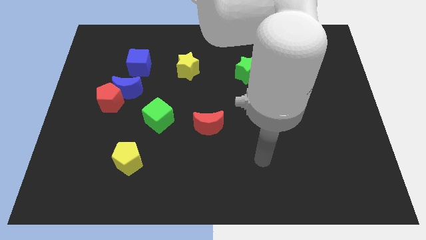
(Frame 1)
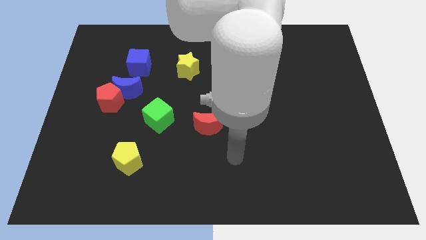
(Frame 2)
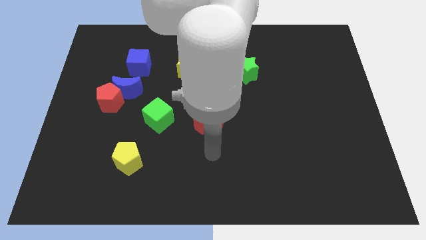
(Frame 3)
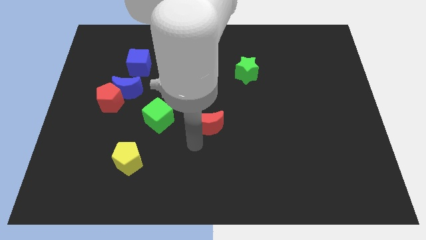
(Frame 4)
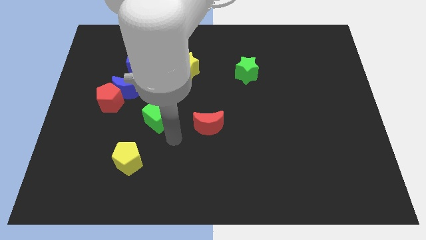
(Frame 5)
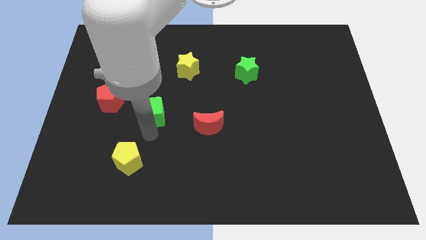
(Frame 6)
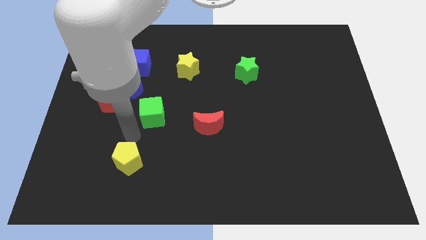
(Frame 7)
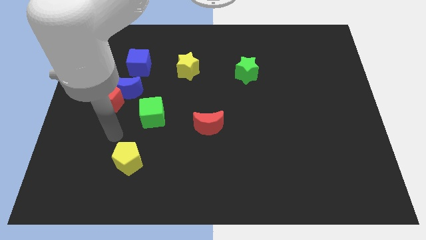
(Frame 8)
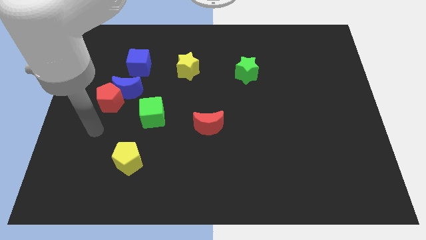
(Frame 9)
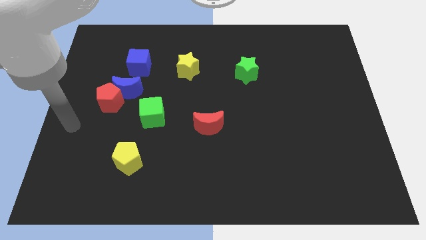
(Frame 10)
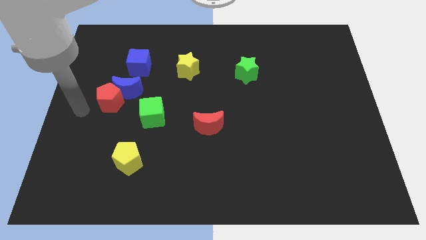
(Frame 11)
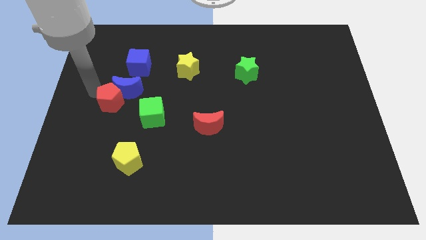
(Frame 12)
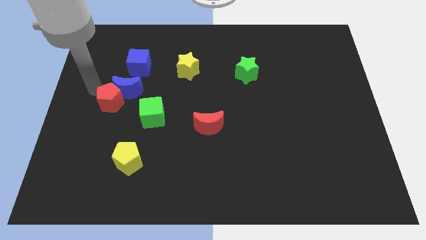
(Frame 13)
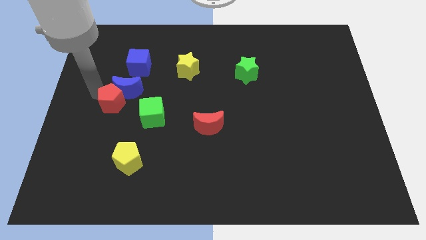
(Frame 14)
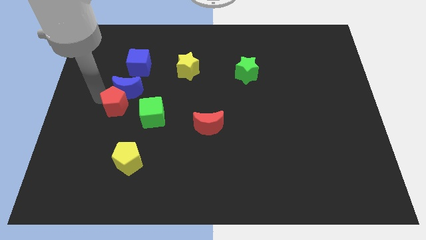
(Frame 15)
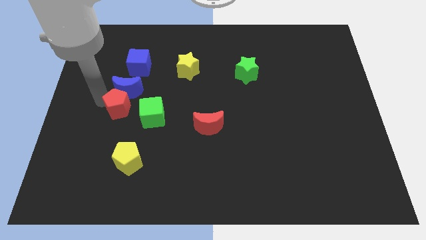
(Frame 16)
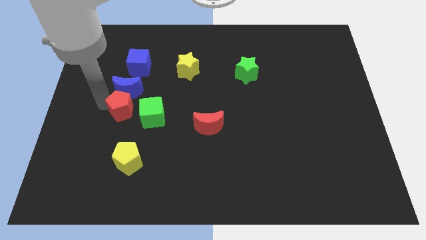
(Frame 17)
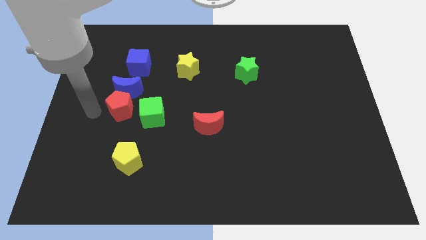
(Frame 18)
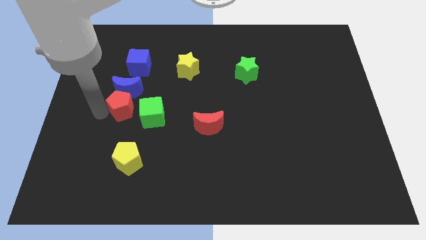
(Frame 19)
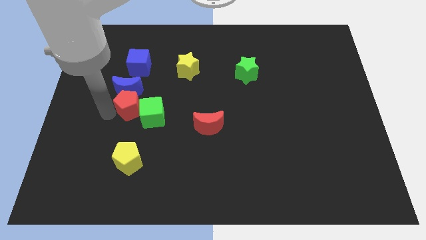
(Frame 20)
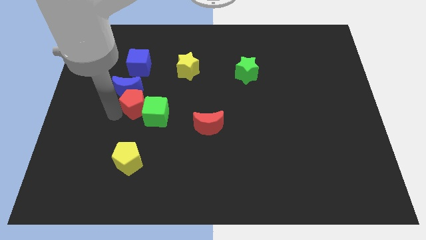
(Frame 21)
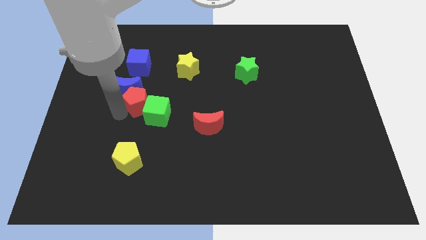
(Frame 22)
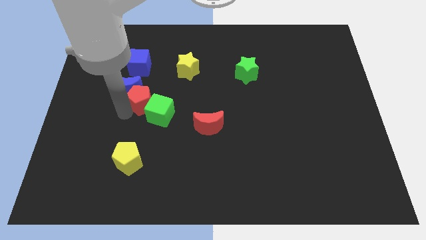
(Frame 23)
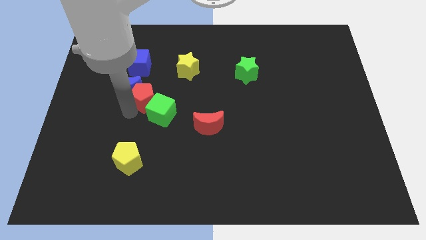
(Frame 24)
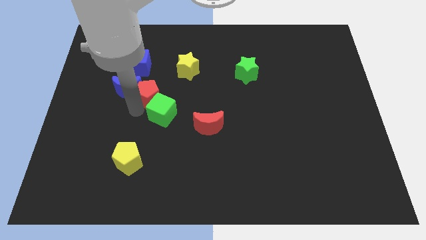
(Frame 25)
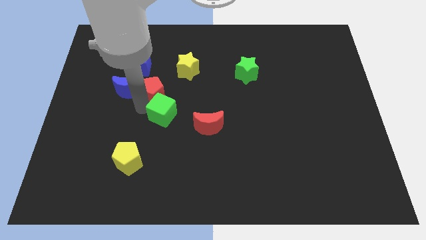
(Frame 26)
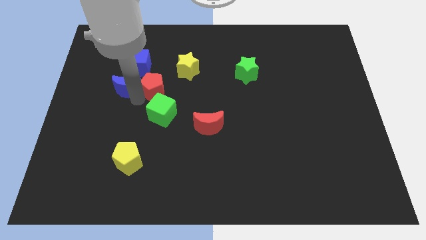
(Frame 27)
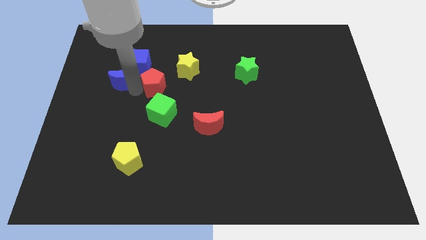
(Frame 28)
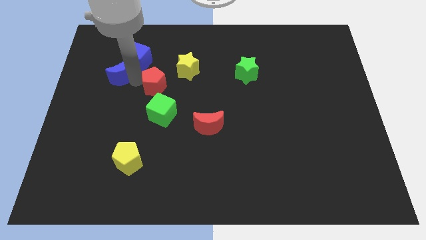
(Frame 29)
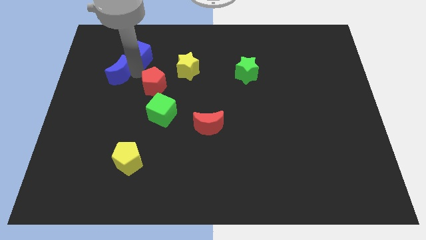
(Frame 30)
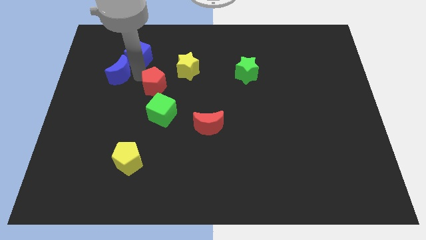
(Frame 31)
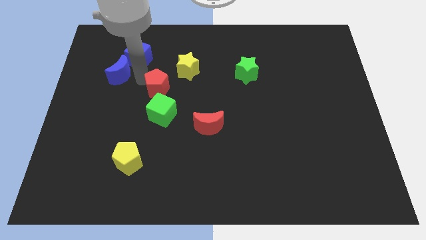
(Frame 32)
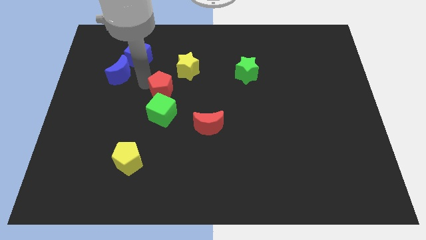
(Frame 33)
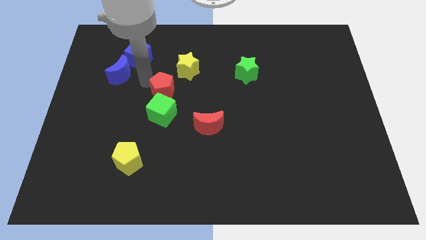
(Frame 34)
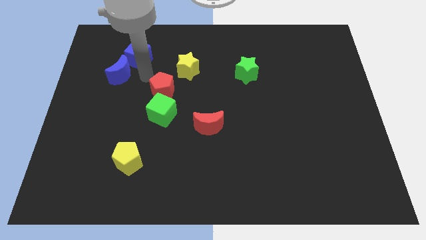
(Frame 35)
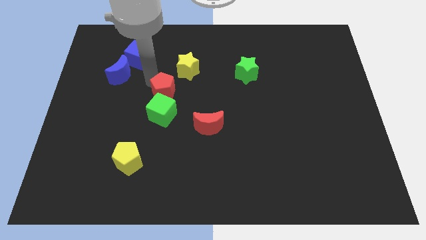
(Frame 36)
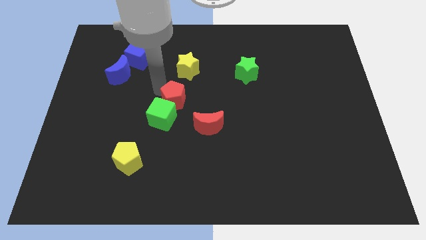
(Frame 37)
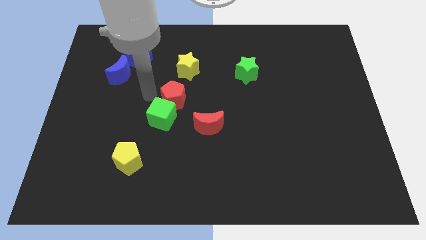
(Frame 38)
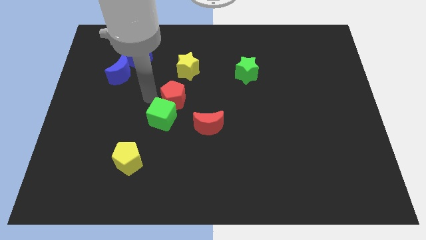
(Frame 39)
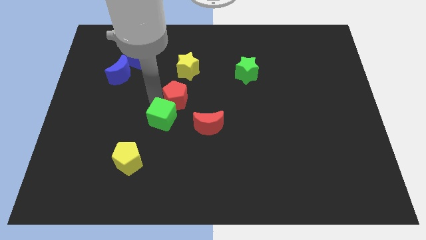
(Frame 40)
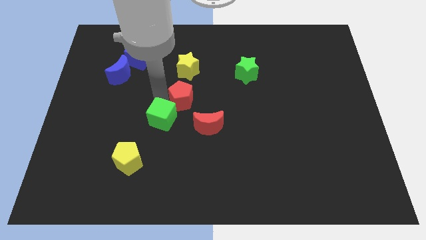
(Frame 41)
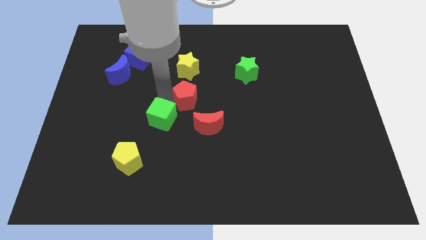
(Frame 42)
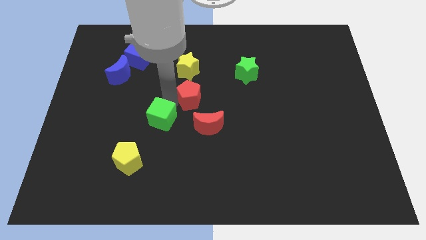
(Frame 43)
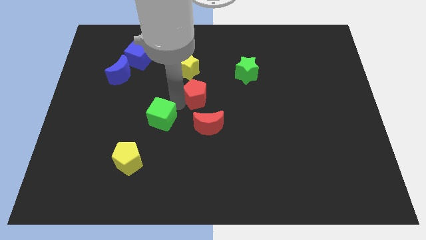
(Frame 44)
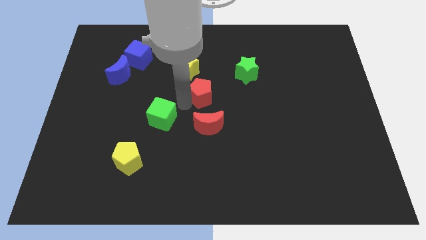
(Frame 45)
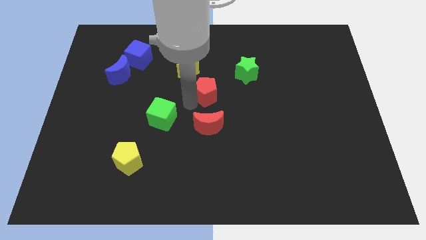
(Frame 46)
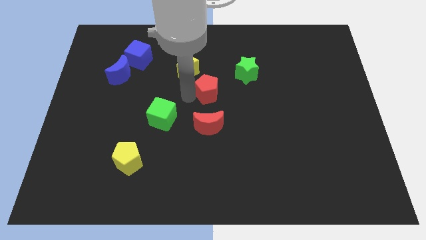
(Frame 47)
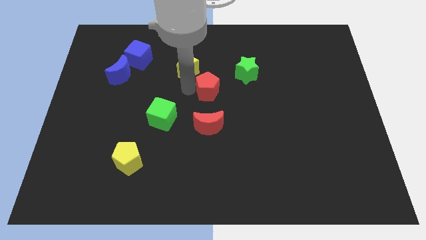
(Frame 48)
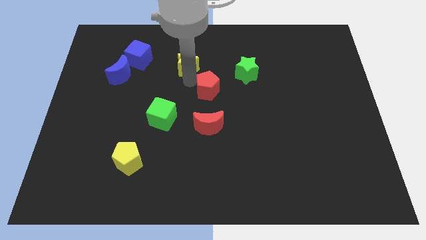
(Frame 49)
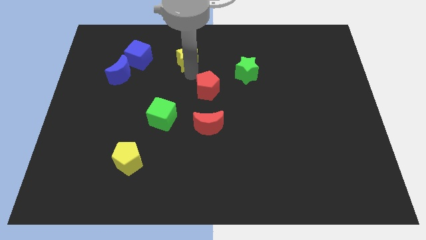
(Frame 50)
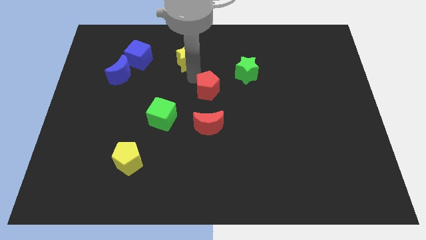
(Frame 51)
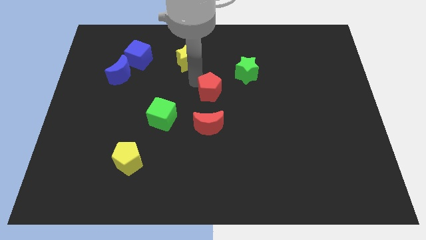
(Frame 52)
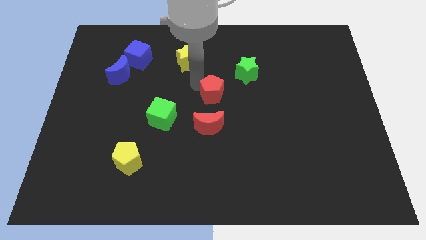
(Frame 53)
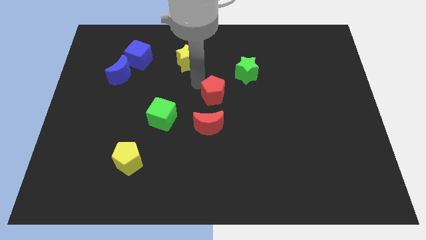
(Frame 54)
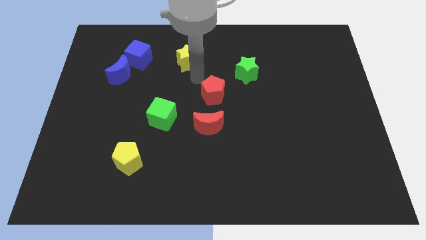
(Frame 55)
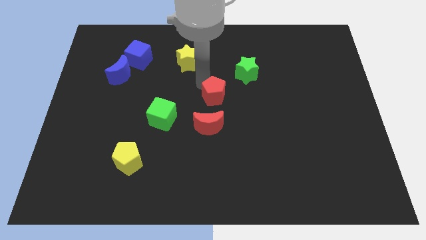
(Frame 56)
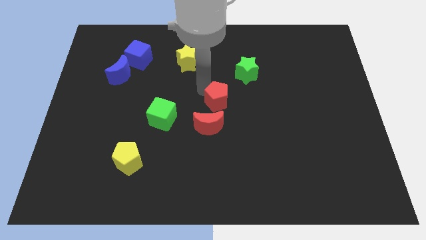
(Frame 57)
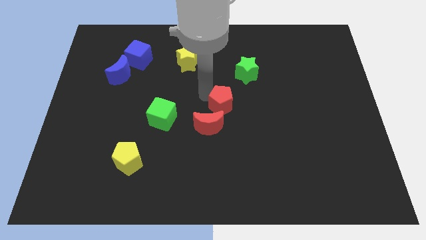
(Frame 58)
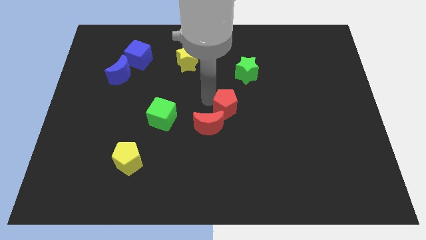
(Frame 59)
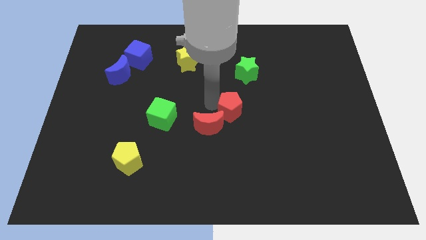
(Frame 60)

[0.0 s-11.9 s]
move the red pentagon to the bottom side of the green star

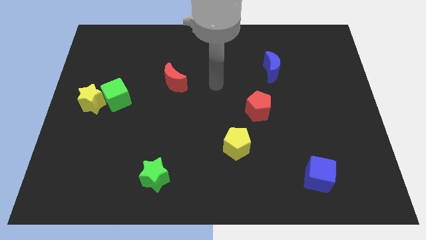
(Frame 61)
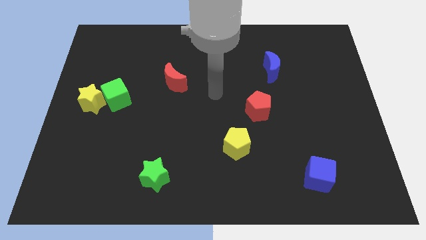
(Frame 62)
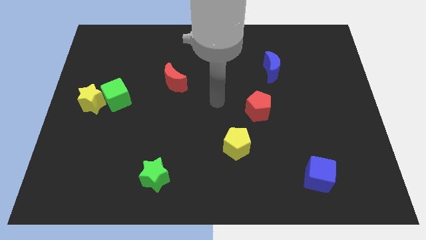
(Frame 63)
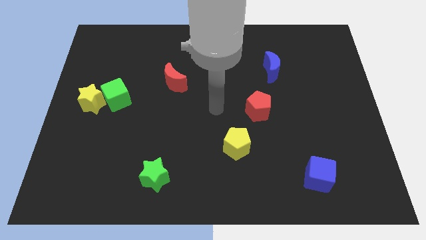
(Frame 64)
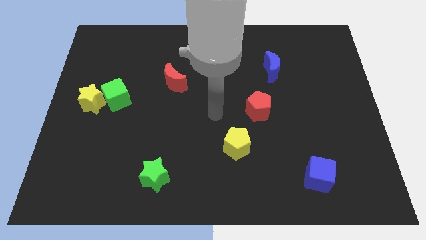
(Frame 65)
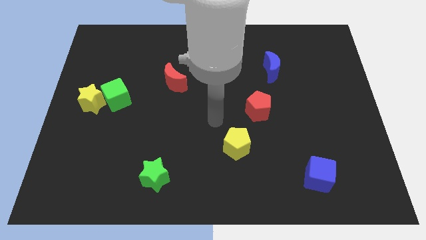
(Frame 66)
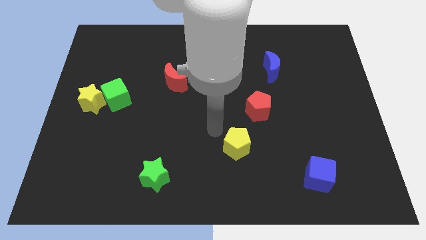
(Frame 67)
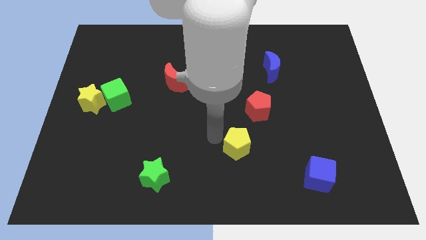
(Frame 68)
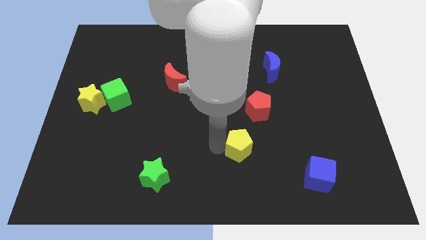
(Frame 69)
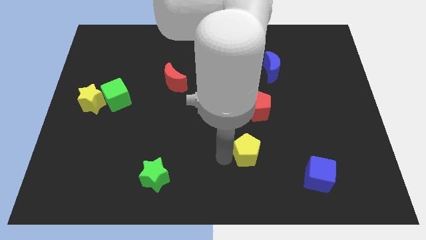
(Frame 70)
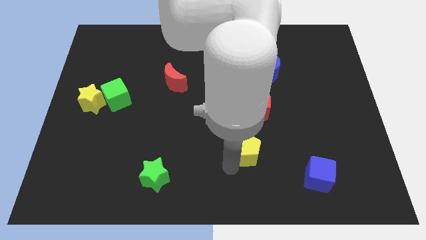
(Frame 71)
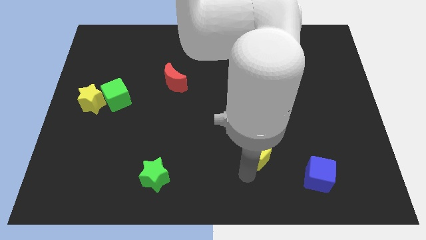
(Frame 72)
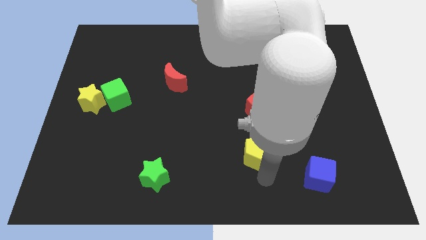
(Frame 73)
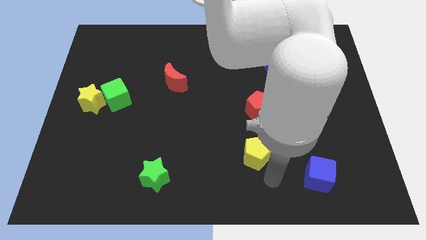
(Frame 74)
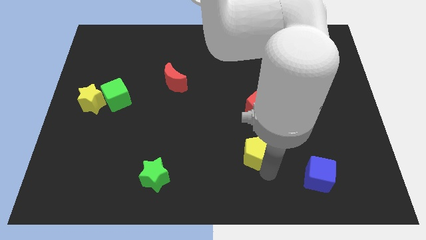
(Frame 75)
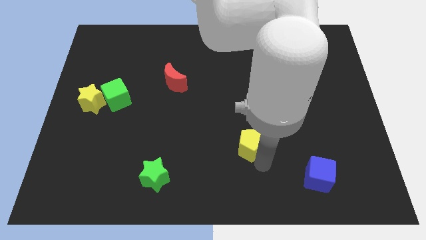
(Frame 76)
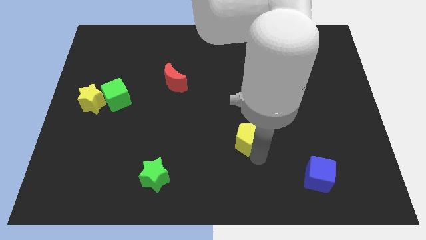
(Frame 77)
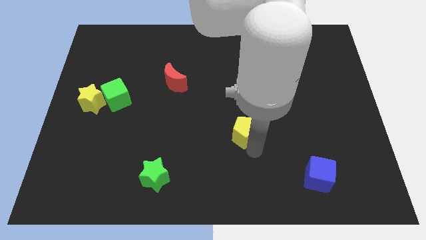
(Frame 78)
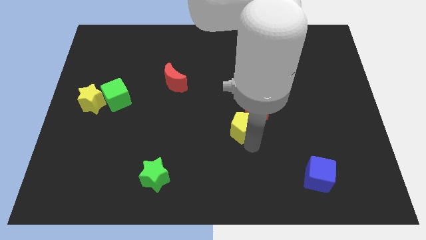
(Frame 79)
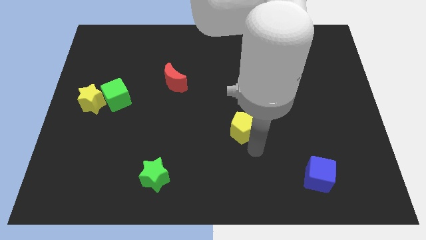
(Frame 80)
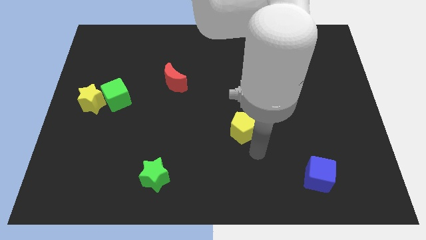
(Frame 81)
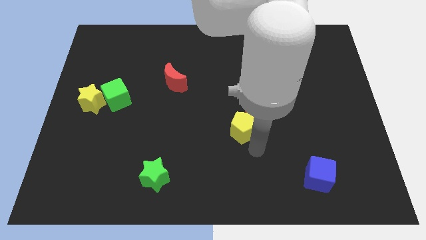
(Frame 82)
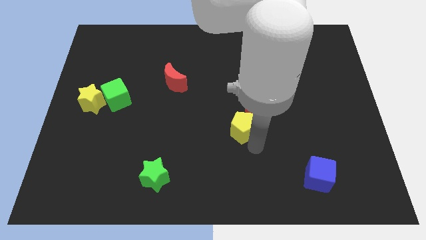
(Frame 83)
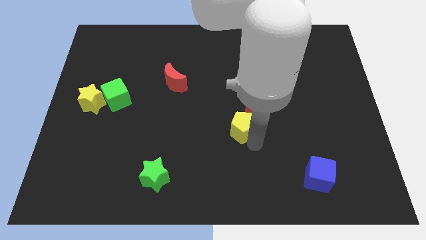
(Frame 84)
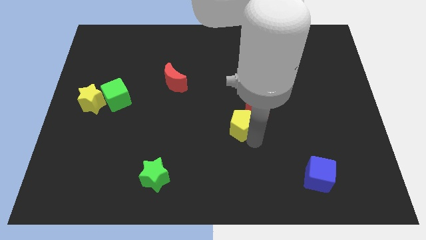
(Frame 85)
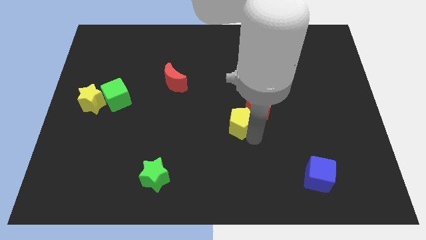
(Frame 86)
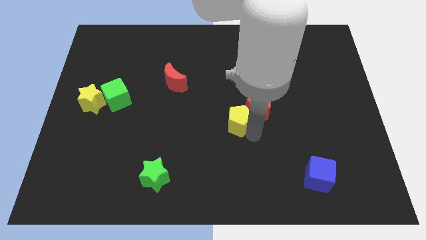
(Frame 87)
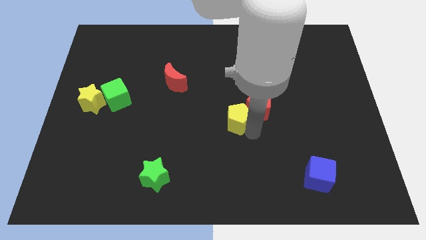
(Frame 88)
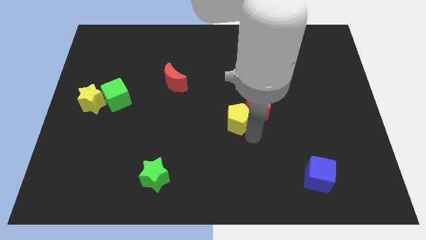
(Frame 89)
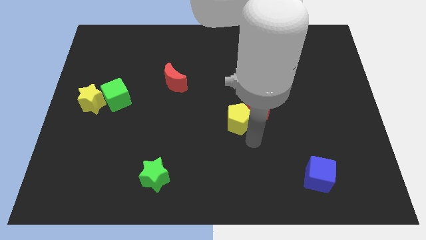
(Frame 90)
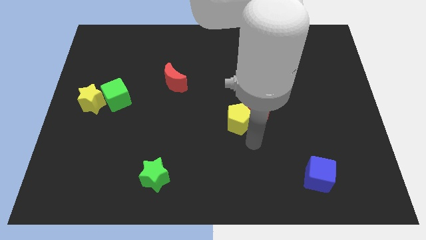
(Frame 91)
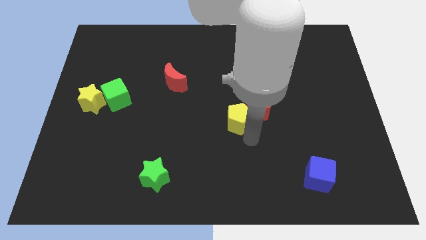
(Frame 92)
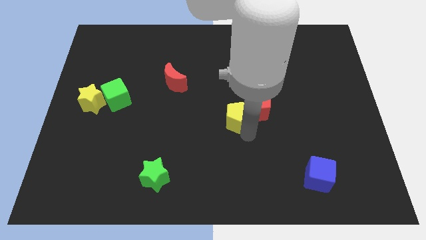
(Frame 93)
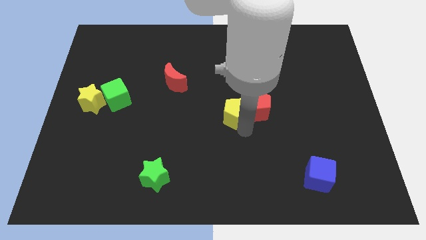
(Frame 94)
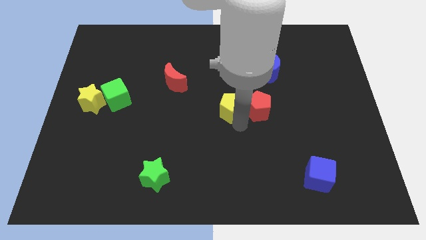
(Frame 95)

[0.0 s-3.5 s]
move the yellow pentagon to the top left side of the red pentagon
